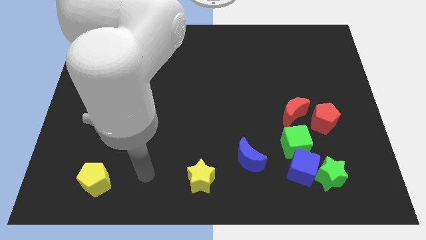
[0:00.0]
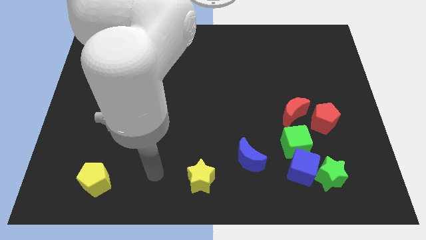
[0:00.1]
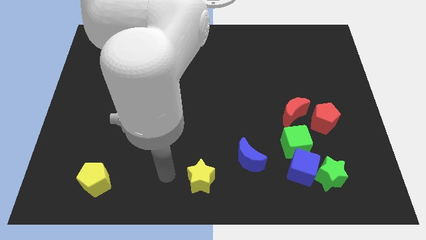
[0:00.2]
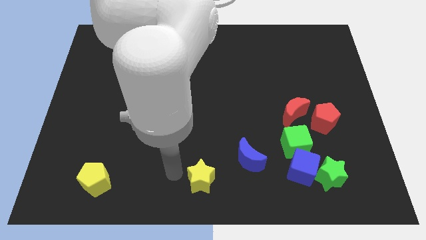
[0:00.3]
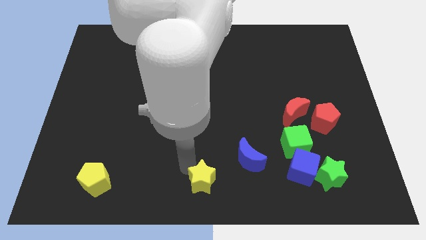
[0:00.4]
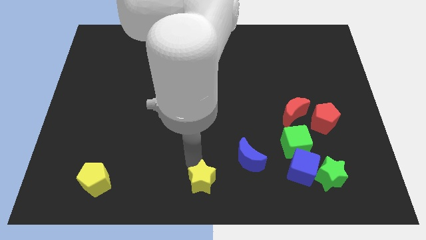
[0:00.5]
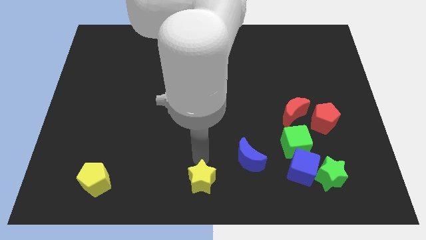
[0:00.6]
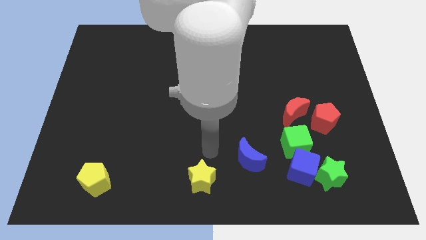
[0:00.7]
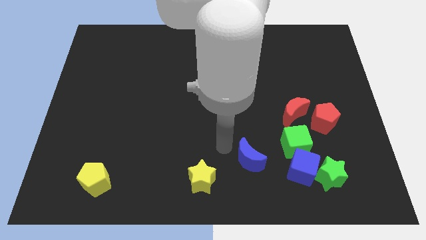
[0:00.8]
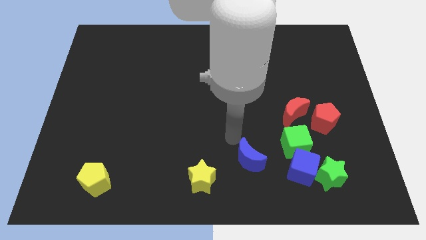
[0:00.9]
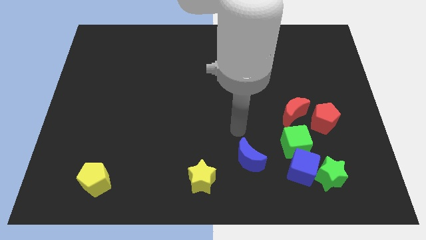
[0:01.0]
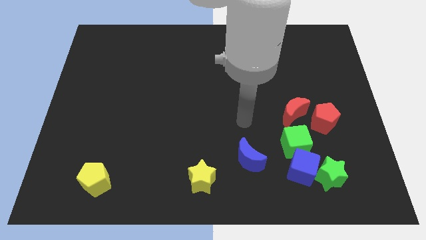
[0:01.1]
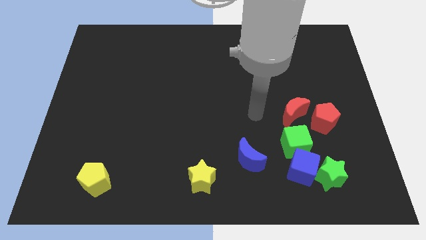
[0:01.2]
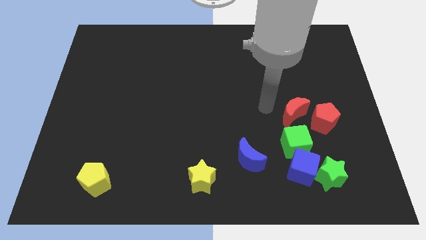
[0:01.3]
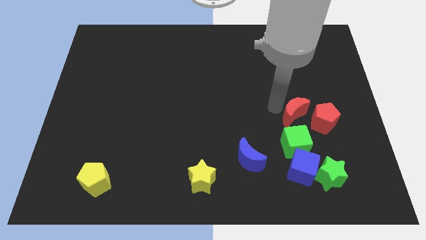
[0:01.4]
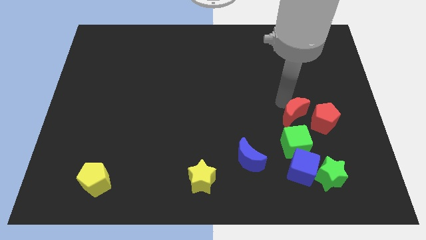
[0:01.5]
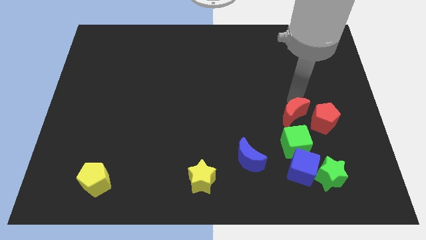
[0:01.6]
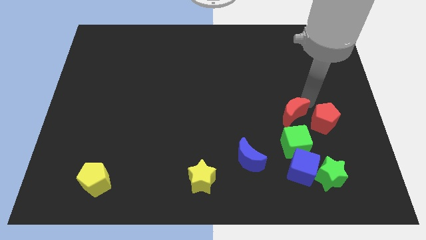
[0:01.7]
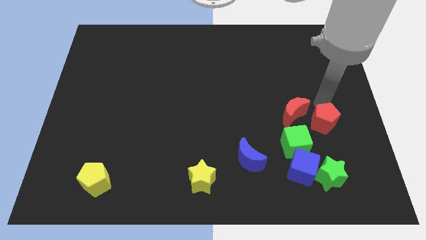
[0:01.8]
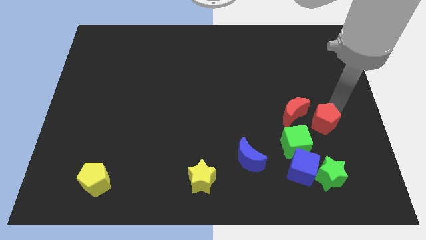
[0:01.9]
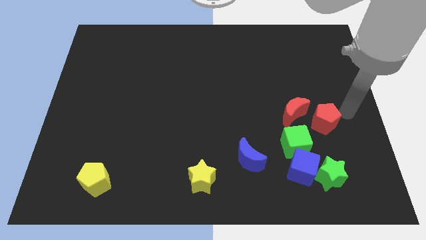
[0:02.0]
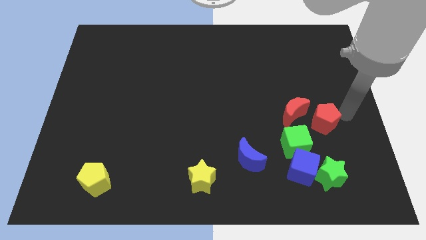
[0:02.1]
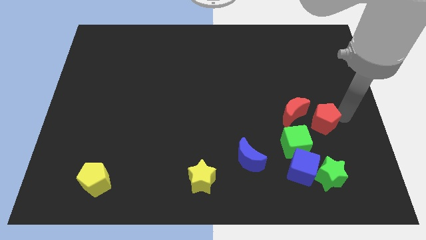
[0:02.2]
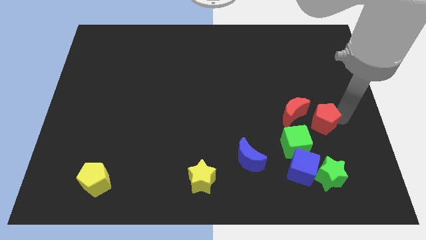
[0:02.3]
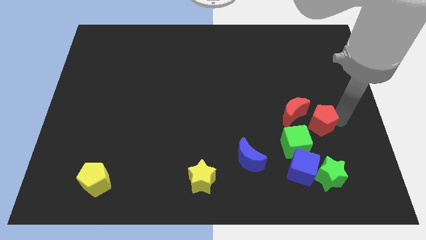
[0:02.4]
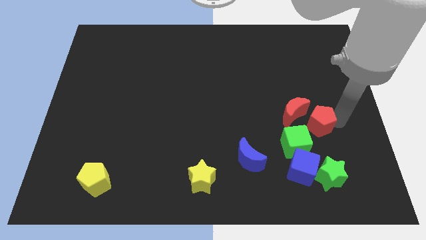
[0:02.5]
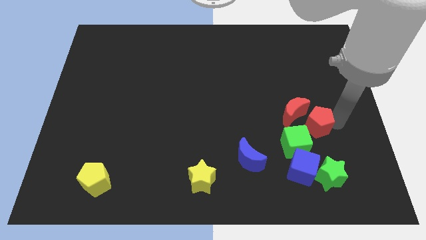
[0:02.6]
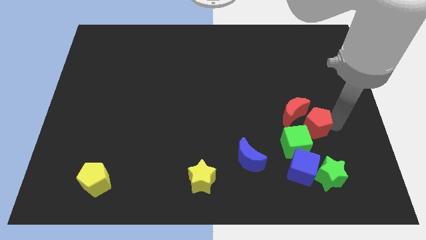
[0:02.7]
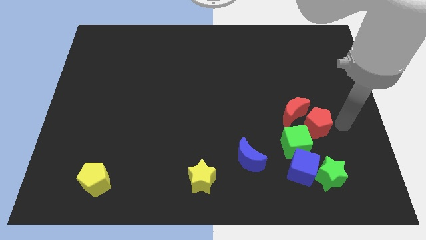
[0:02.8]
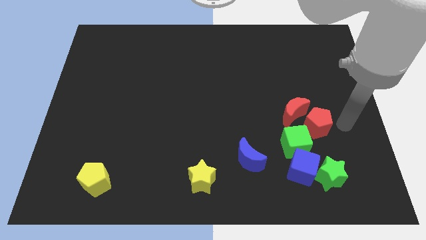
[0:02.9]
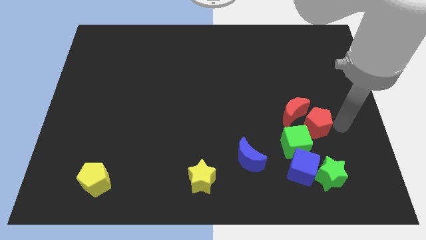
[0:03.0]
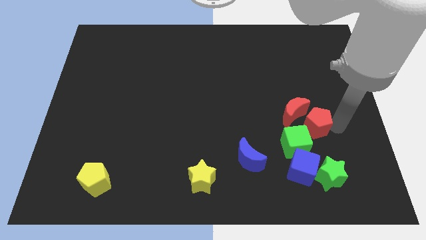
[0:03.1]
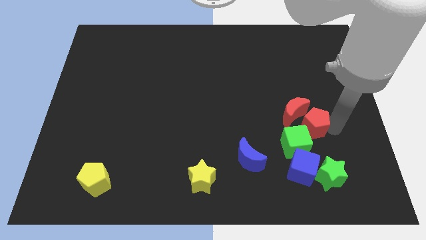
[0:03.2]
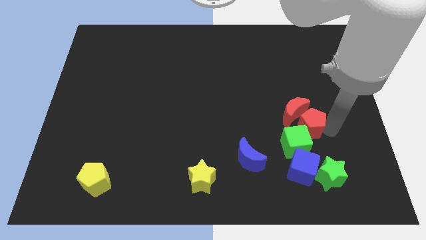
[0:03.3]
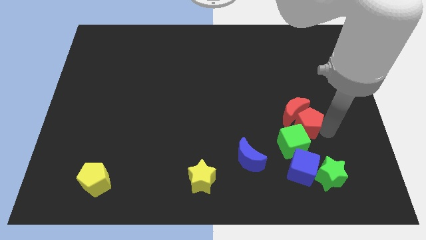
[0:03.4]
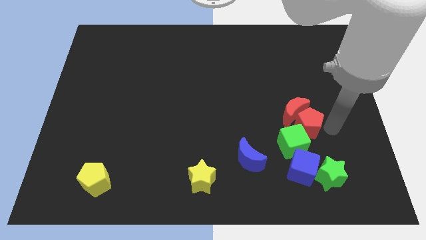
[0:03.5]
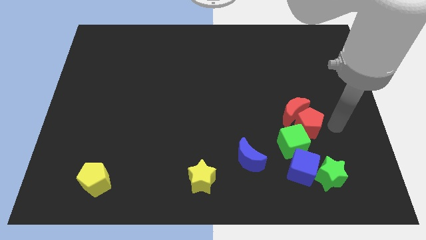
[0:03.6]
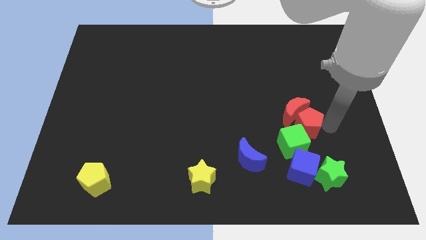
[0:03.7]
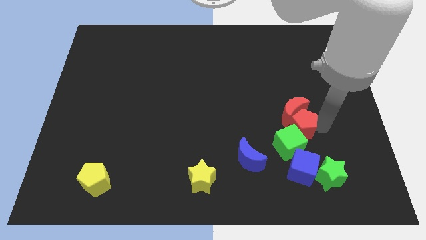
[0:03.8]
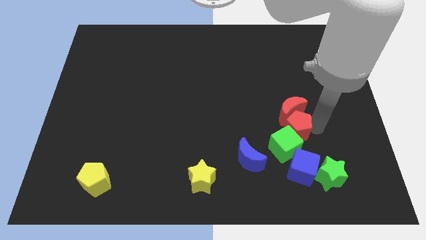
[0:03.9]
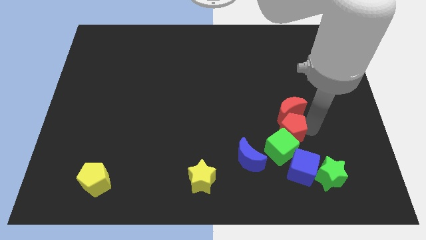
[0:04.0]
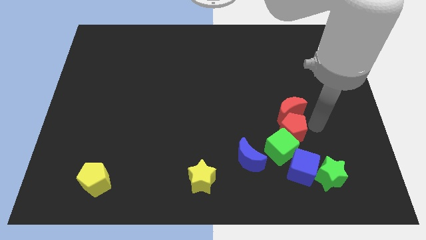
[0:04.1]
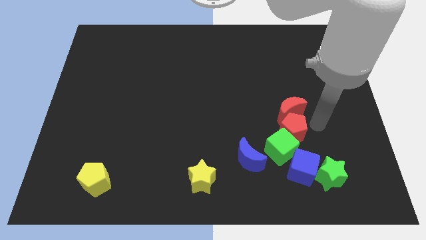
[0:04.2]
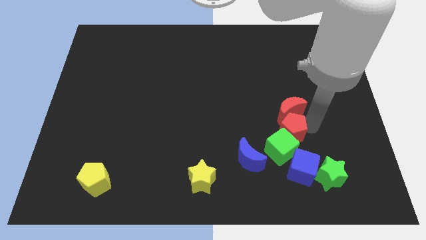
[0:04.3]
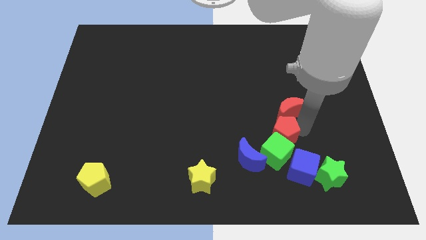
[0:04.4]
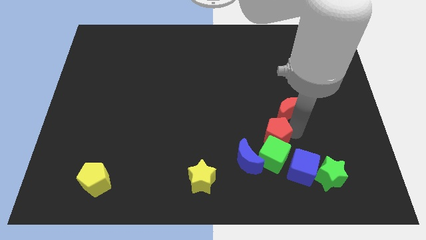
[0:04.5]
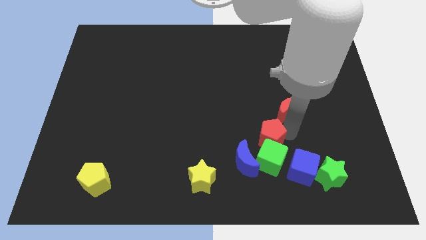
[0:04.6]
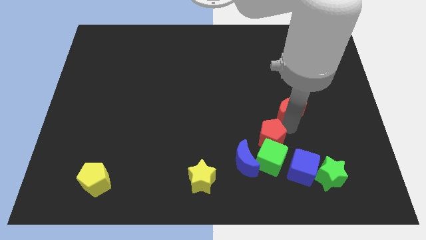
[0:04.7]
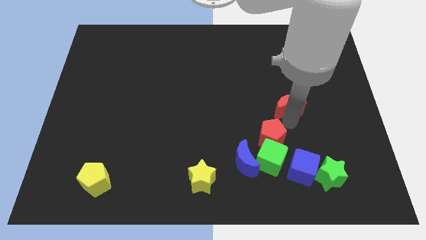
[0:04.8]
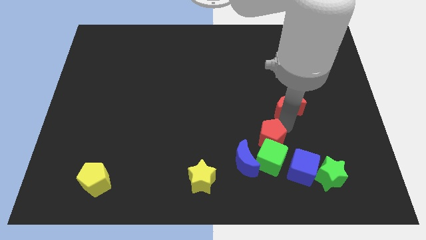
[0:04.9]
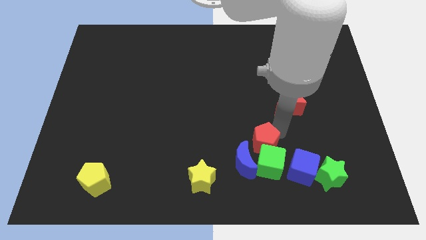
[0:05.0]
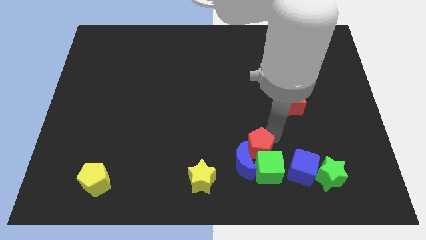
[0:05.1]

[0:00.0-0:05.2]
move the red pentagon close to the blue moon

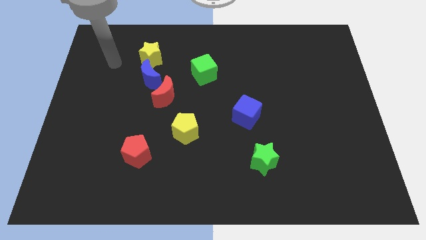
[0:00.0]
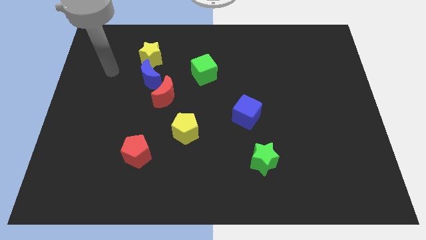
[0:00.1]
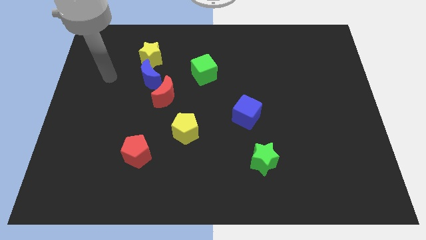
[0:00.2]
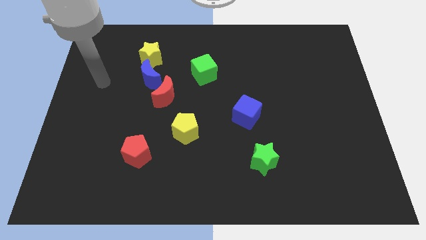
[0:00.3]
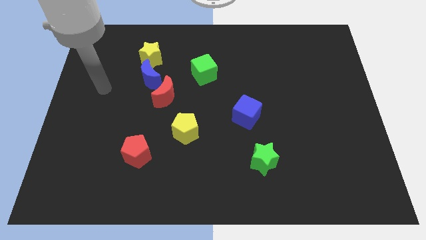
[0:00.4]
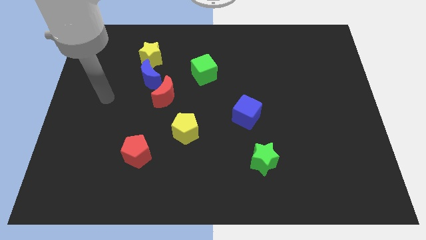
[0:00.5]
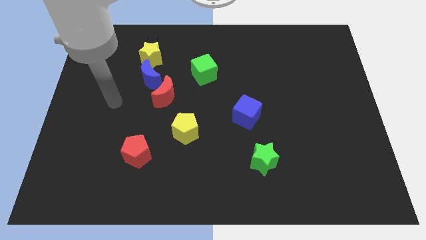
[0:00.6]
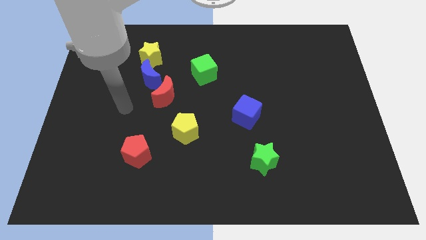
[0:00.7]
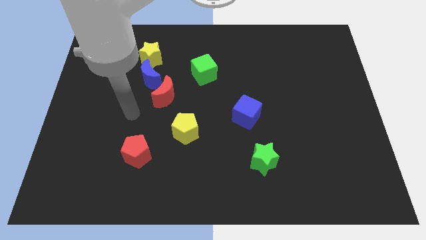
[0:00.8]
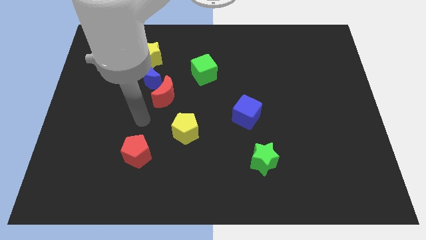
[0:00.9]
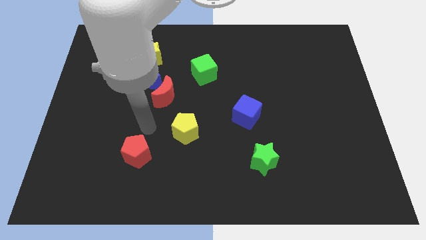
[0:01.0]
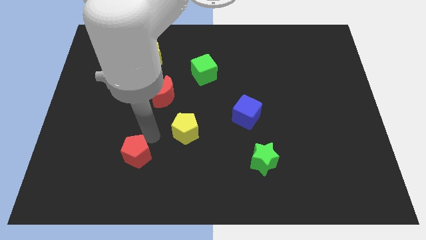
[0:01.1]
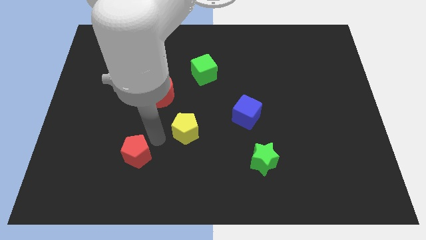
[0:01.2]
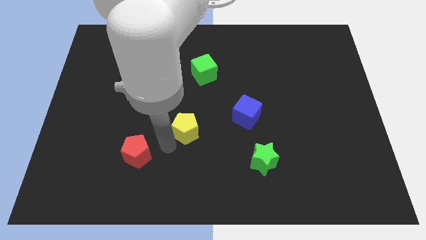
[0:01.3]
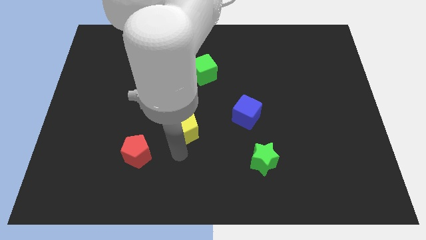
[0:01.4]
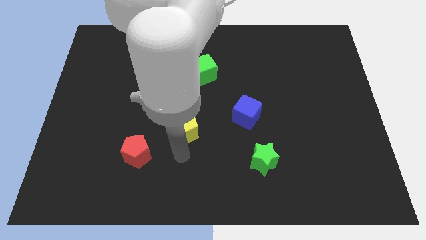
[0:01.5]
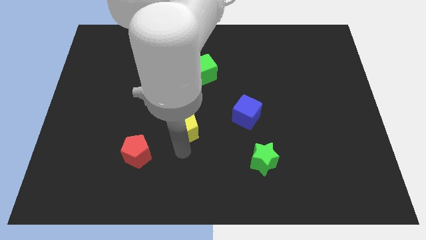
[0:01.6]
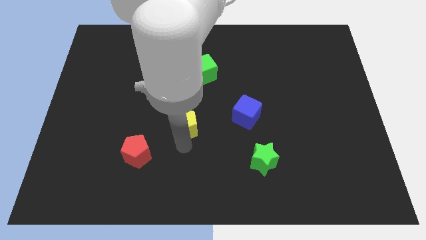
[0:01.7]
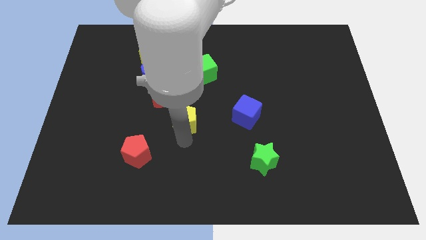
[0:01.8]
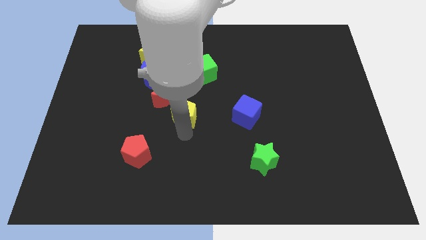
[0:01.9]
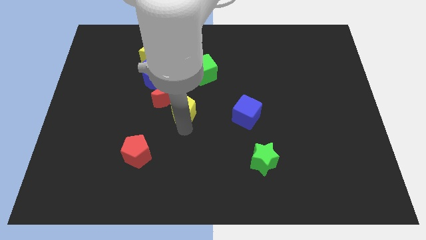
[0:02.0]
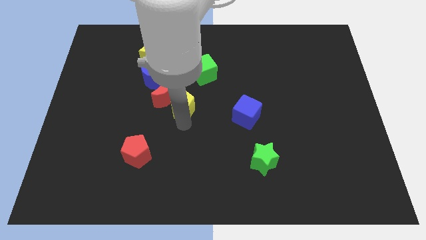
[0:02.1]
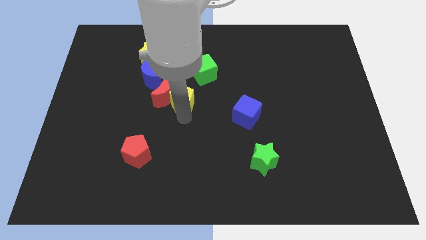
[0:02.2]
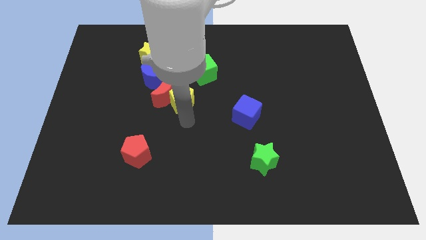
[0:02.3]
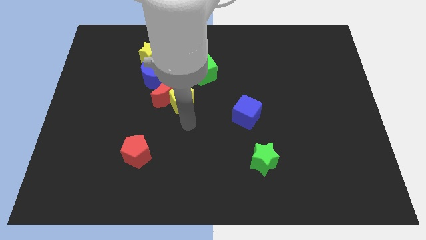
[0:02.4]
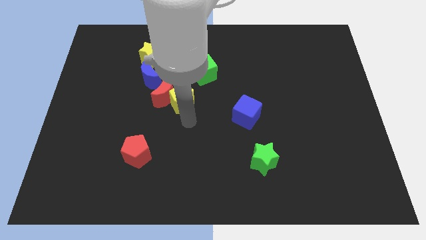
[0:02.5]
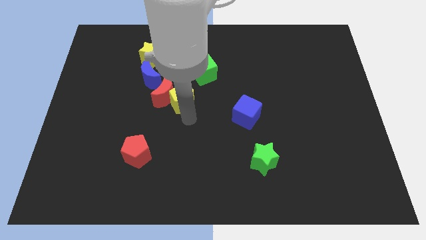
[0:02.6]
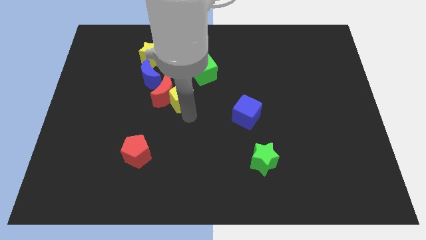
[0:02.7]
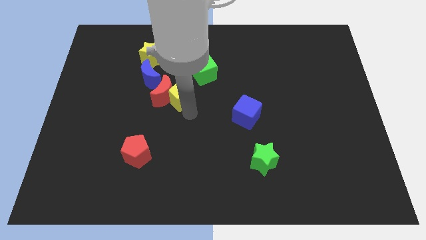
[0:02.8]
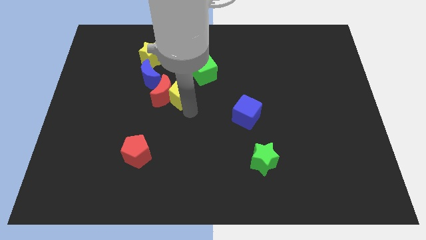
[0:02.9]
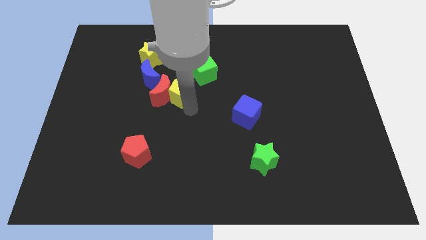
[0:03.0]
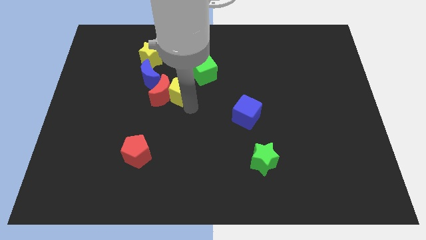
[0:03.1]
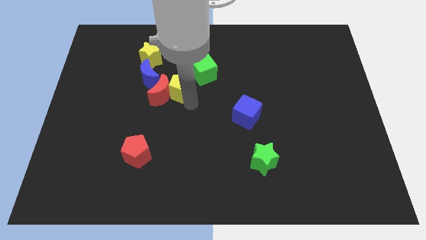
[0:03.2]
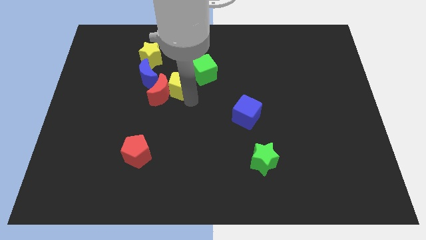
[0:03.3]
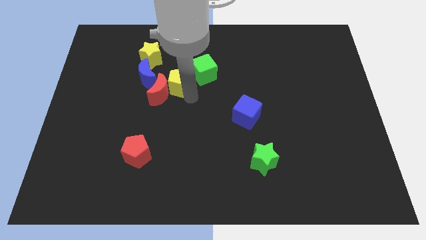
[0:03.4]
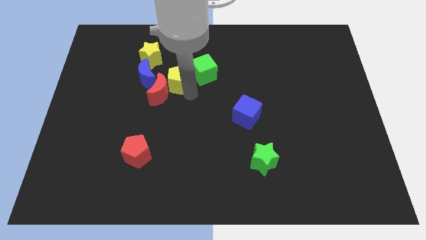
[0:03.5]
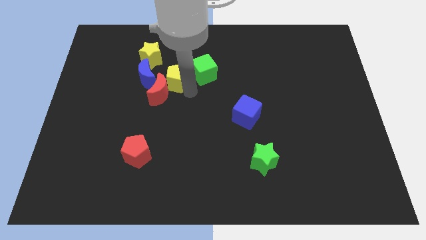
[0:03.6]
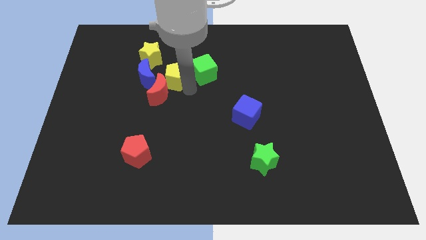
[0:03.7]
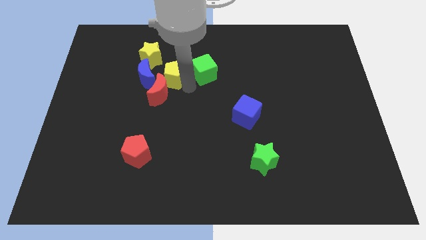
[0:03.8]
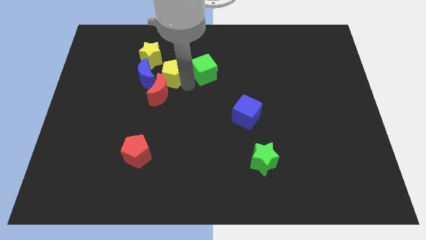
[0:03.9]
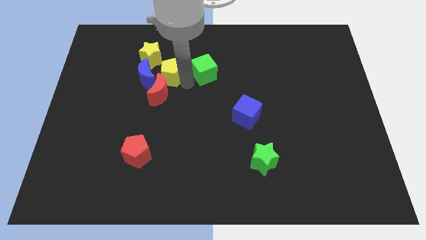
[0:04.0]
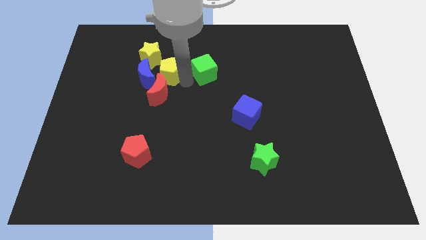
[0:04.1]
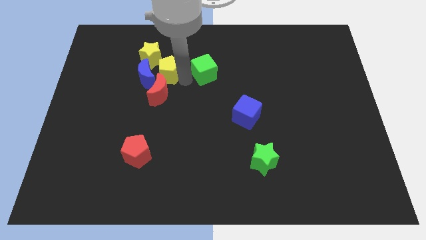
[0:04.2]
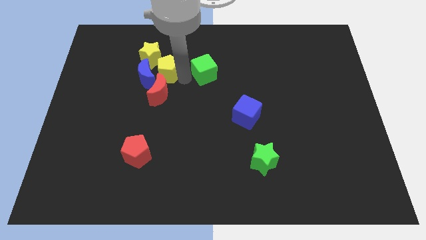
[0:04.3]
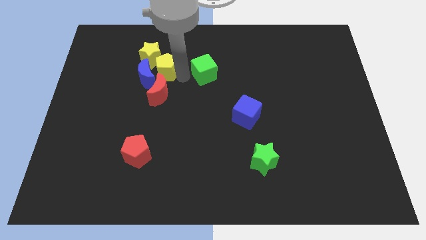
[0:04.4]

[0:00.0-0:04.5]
push the yellow pentagon to the yellow star
